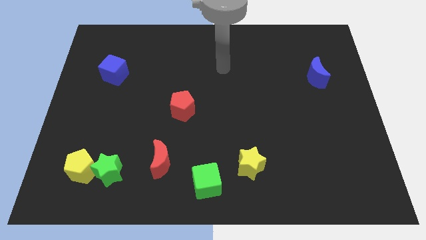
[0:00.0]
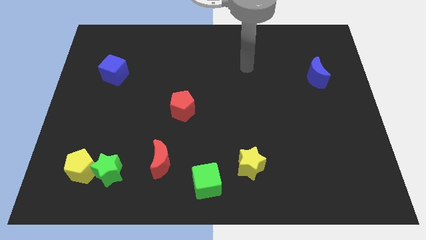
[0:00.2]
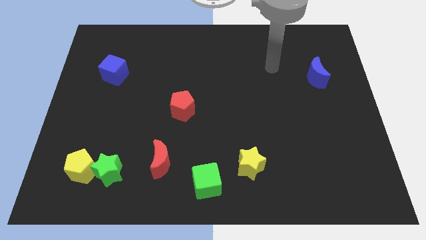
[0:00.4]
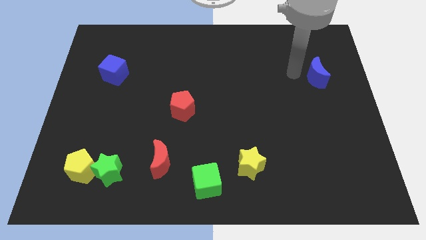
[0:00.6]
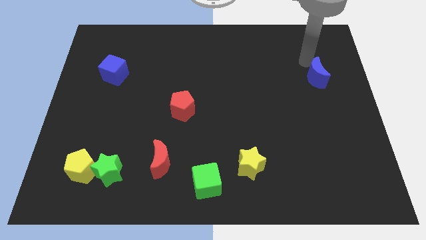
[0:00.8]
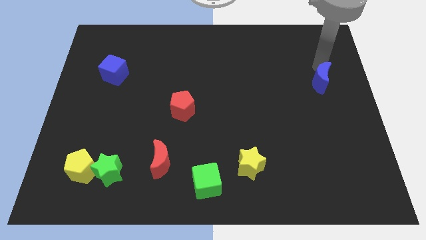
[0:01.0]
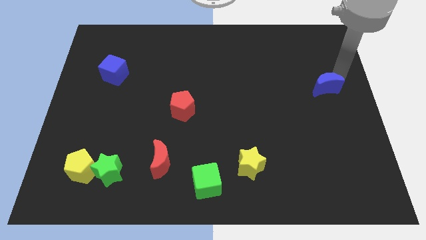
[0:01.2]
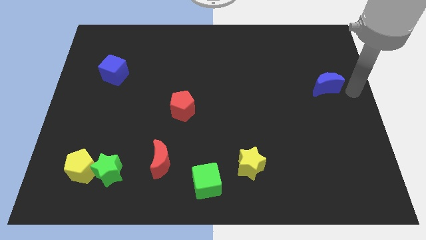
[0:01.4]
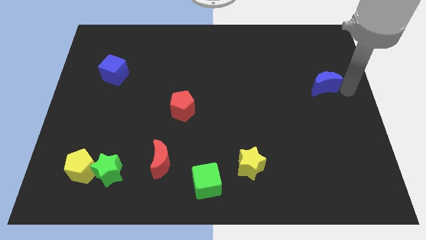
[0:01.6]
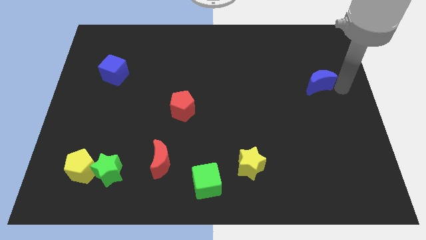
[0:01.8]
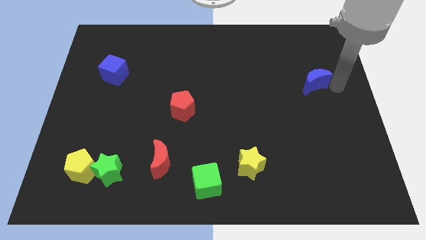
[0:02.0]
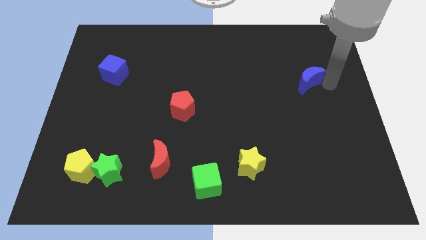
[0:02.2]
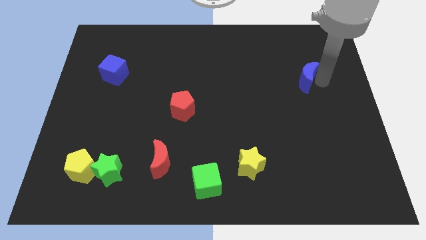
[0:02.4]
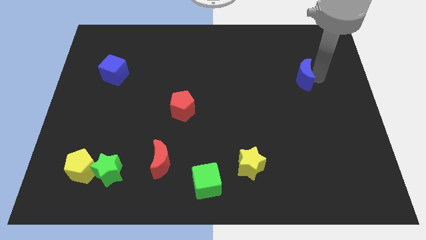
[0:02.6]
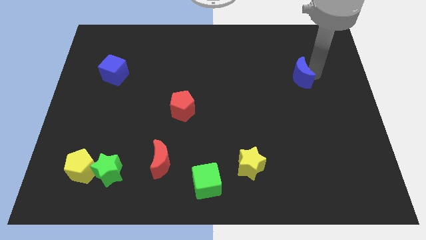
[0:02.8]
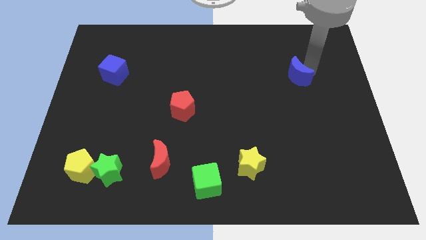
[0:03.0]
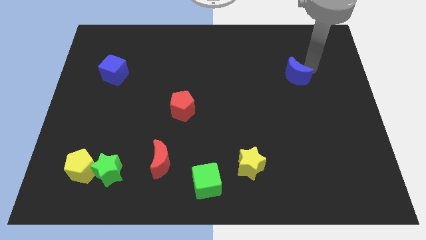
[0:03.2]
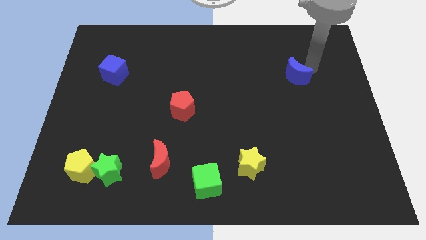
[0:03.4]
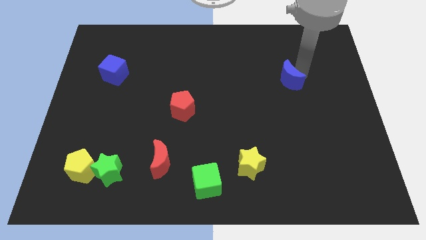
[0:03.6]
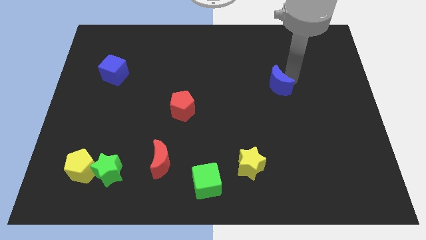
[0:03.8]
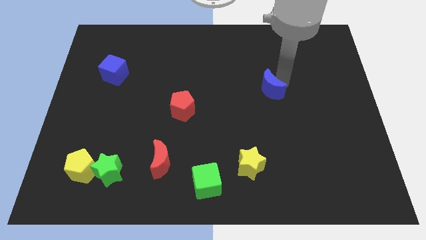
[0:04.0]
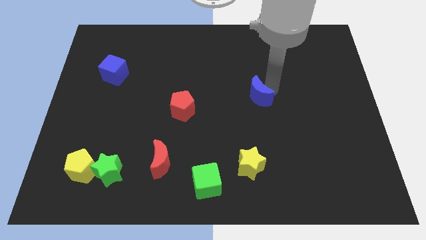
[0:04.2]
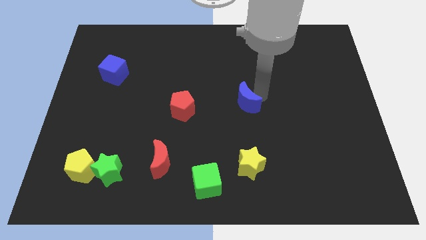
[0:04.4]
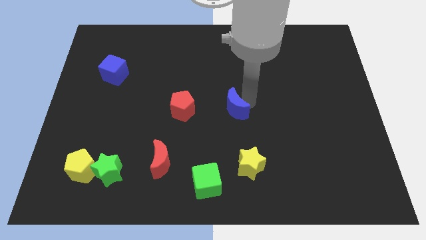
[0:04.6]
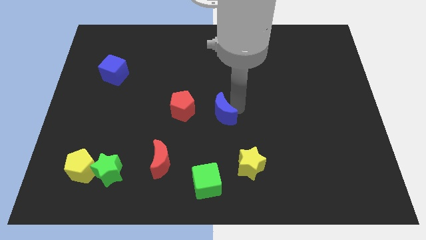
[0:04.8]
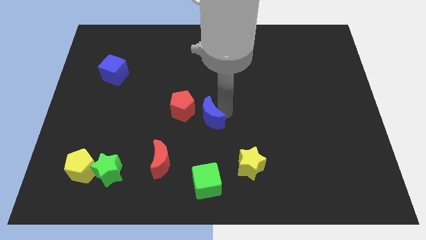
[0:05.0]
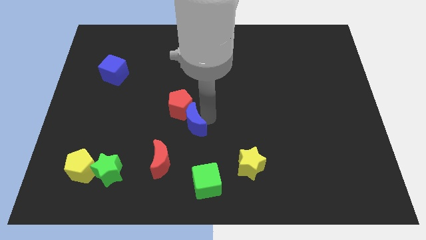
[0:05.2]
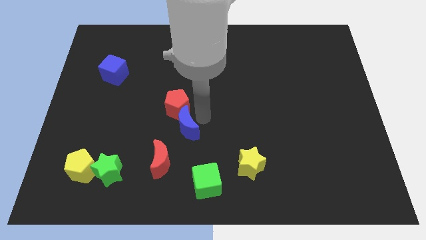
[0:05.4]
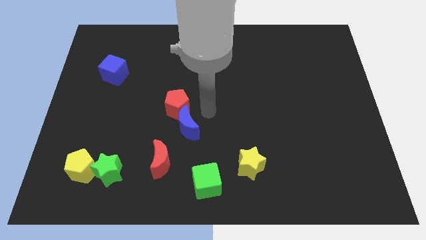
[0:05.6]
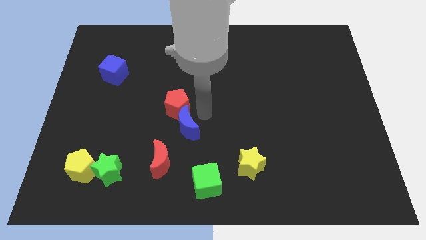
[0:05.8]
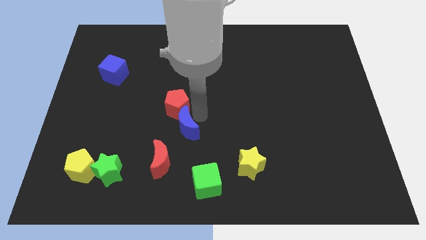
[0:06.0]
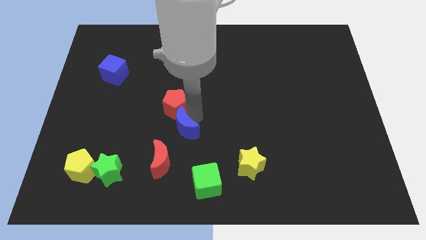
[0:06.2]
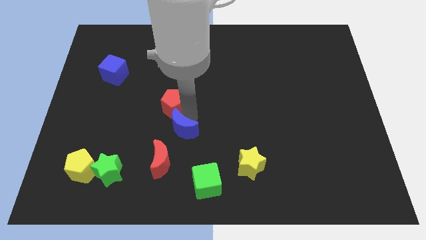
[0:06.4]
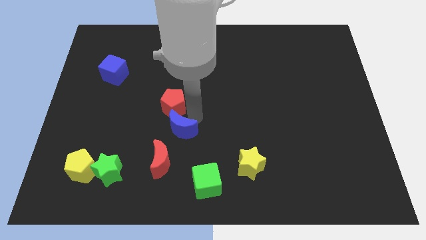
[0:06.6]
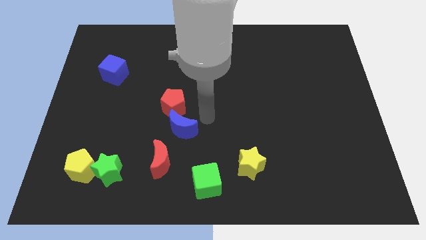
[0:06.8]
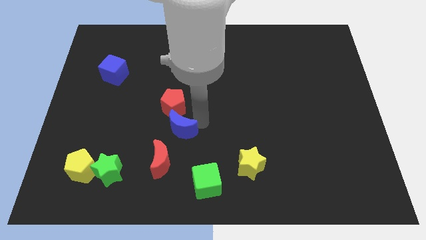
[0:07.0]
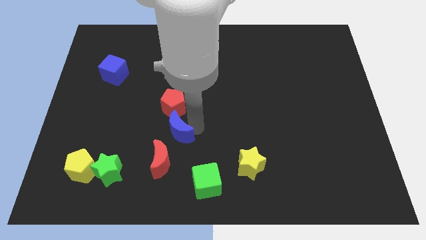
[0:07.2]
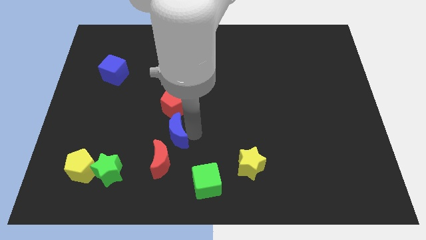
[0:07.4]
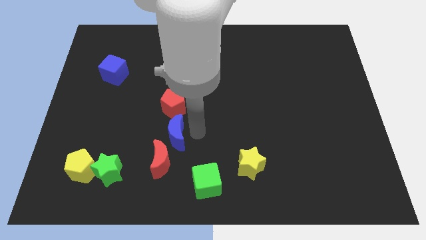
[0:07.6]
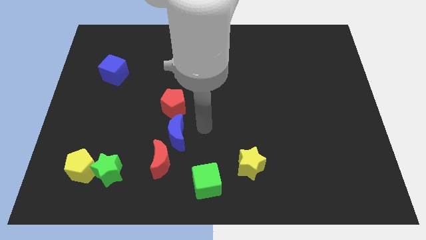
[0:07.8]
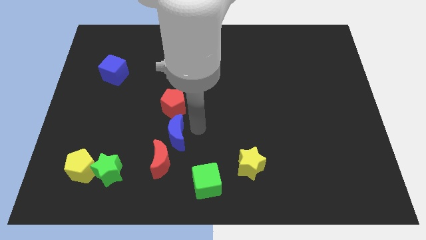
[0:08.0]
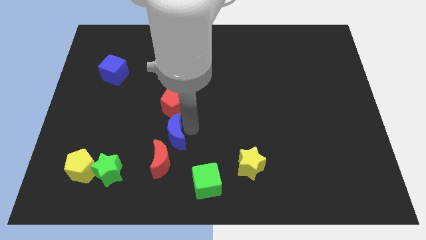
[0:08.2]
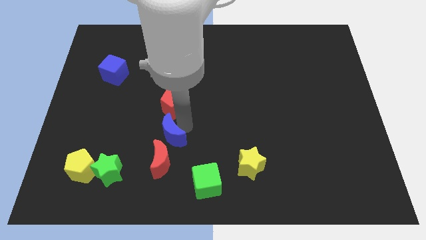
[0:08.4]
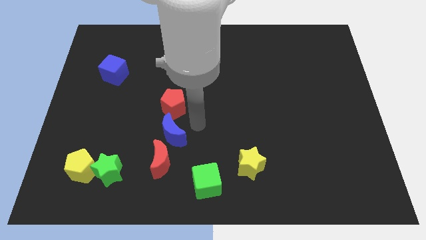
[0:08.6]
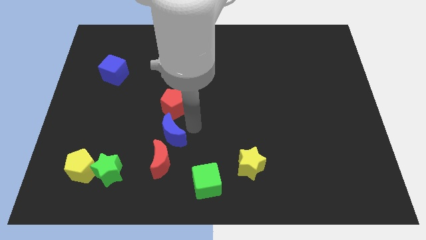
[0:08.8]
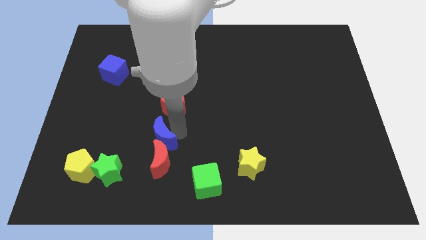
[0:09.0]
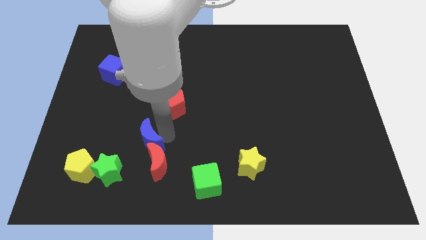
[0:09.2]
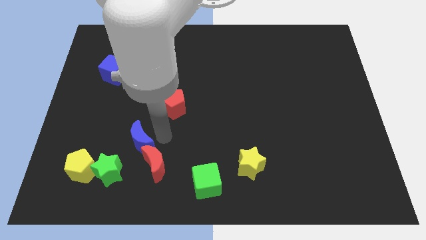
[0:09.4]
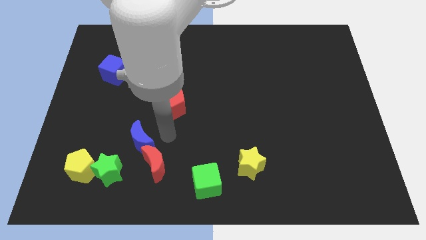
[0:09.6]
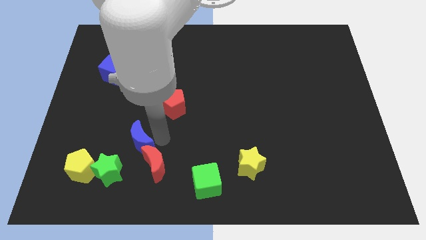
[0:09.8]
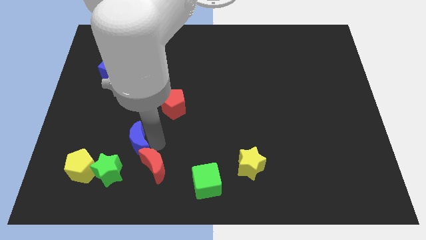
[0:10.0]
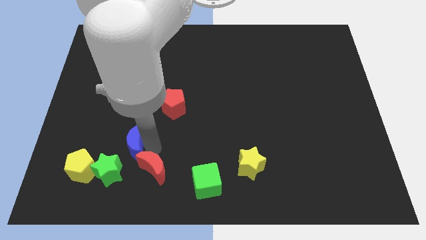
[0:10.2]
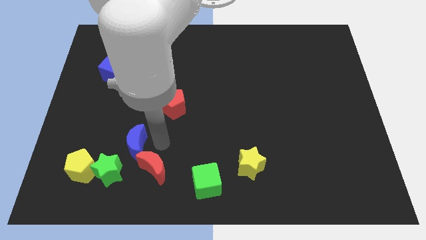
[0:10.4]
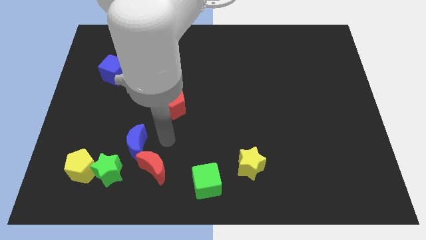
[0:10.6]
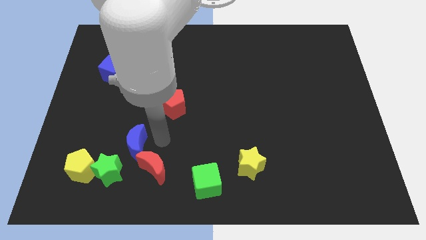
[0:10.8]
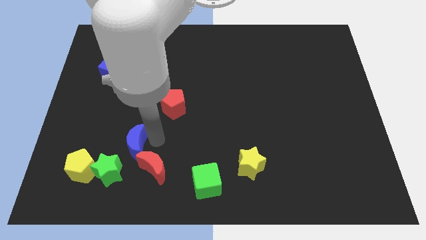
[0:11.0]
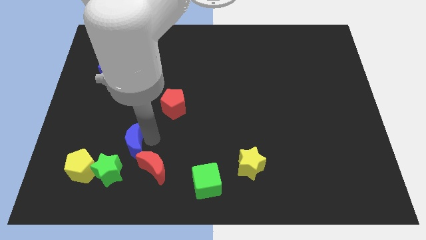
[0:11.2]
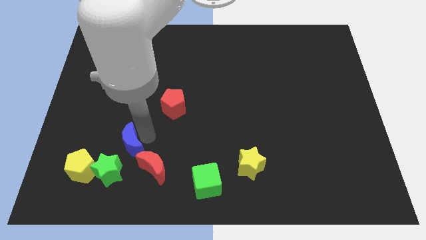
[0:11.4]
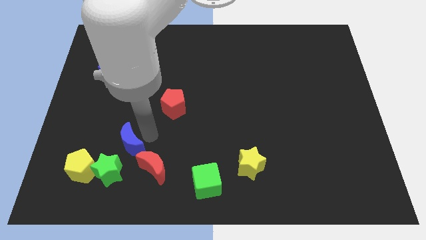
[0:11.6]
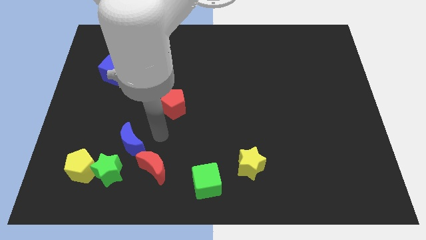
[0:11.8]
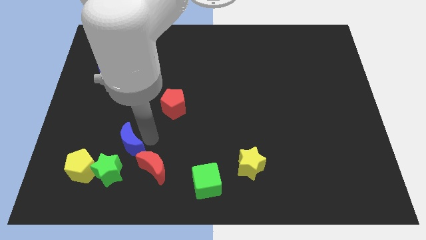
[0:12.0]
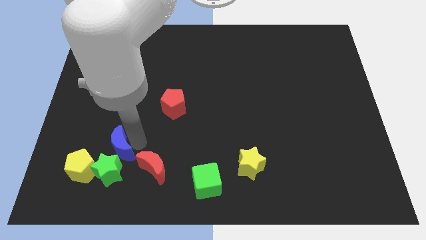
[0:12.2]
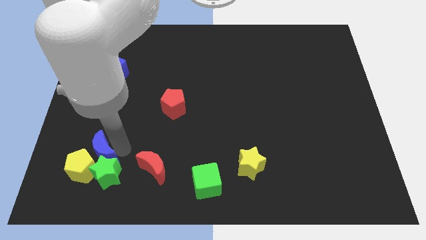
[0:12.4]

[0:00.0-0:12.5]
push the blue moon next to the yellow pentagon

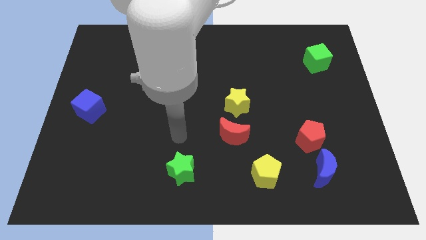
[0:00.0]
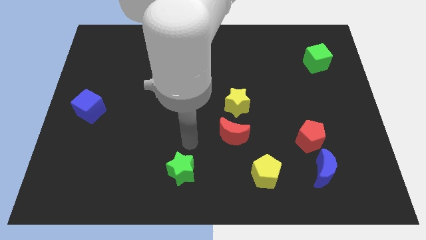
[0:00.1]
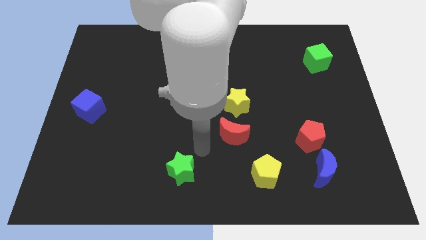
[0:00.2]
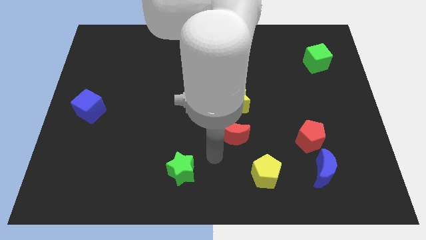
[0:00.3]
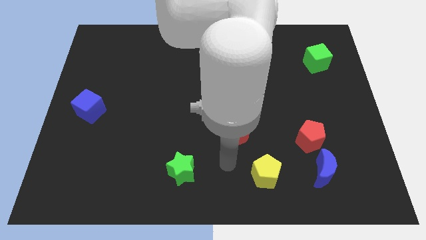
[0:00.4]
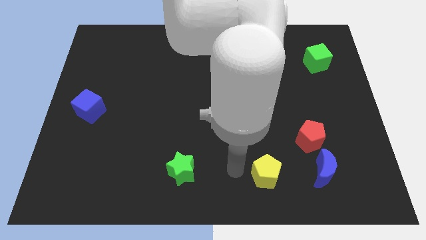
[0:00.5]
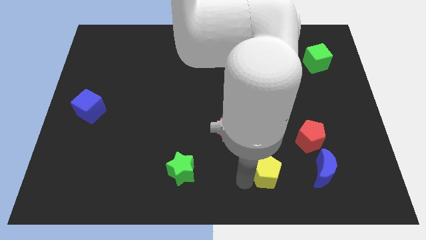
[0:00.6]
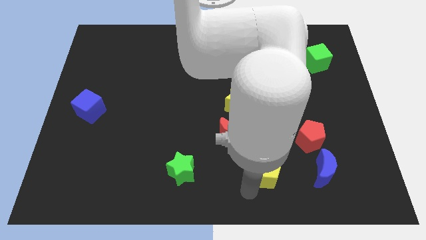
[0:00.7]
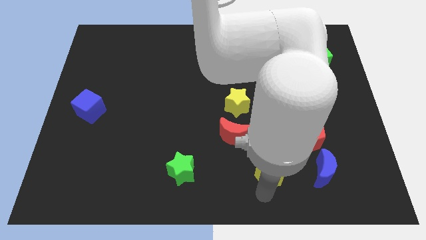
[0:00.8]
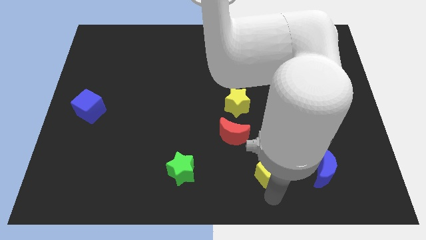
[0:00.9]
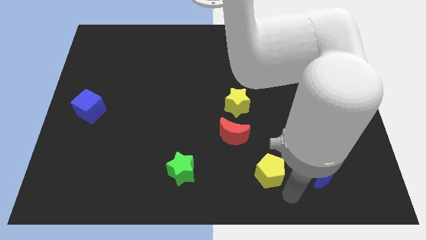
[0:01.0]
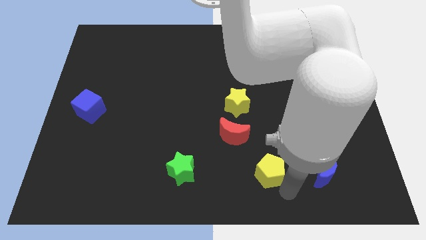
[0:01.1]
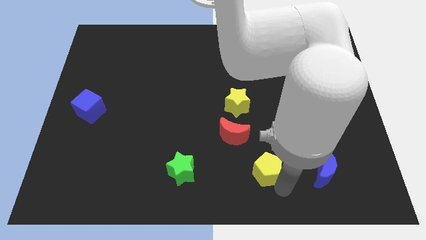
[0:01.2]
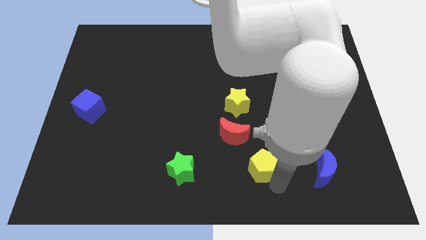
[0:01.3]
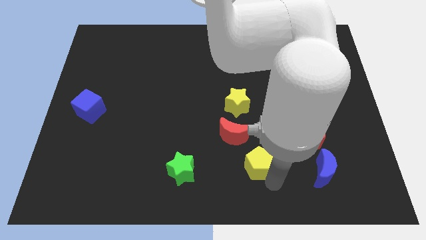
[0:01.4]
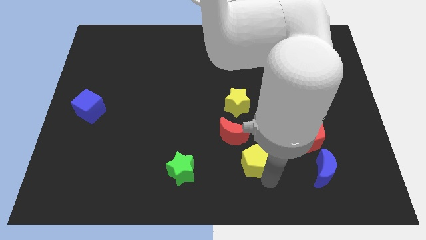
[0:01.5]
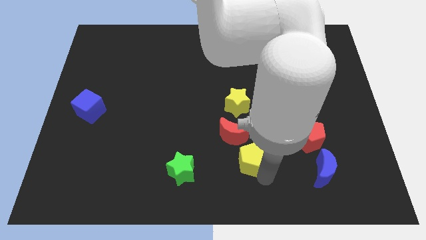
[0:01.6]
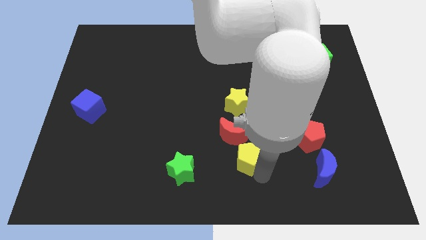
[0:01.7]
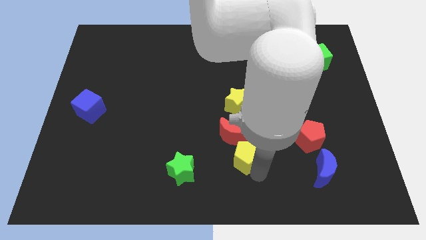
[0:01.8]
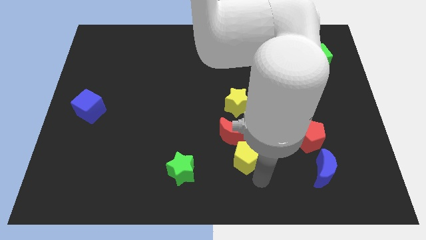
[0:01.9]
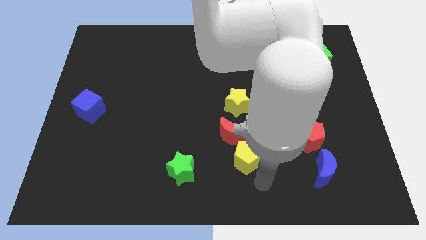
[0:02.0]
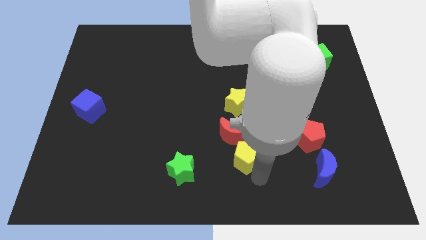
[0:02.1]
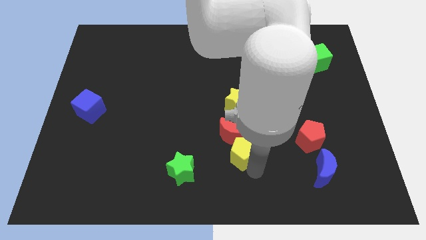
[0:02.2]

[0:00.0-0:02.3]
push the yellow pentagon next to the red moon
